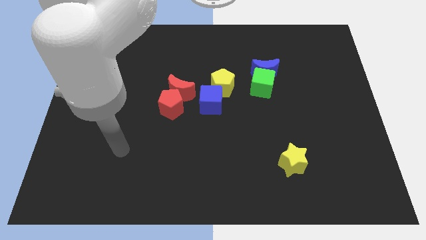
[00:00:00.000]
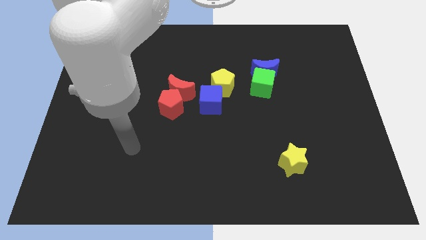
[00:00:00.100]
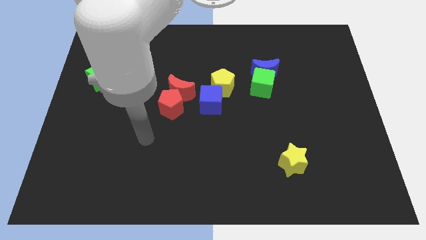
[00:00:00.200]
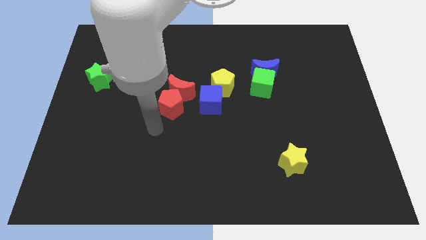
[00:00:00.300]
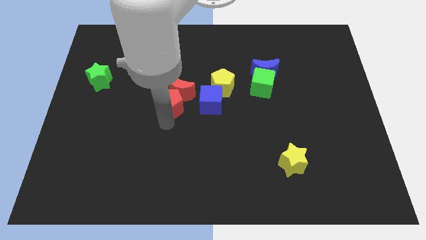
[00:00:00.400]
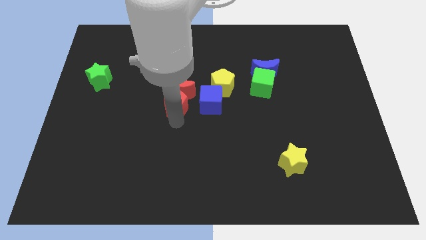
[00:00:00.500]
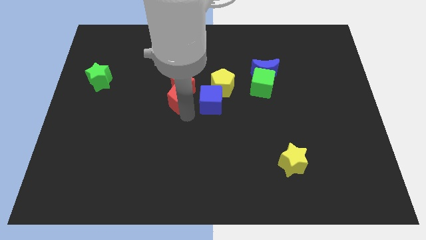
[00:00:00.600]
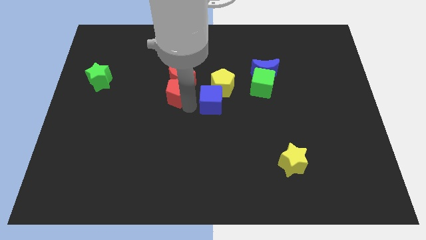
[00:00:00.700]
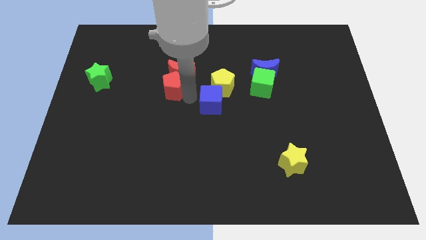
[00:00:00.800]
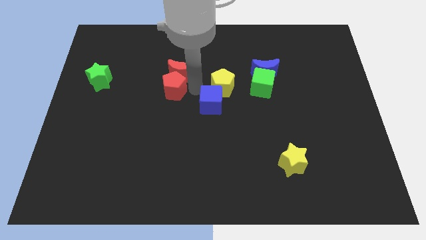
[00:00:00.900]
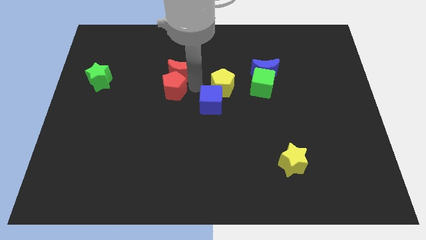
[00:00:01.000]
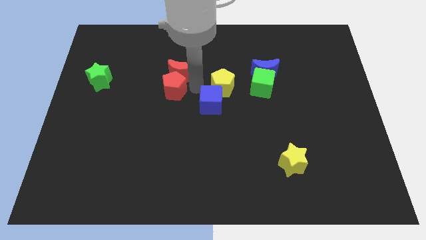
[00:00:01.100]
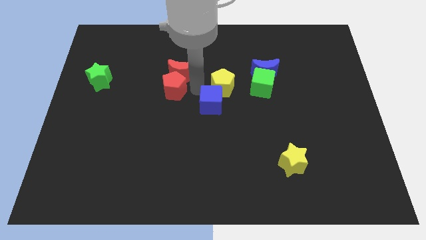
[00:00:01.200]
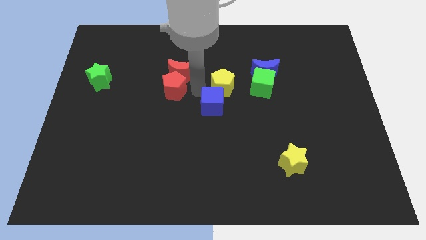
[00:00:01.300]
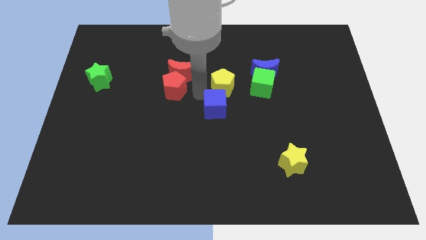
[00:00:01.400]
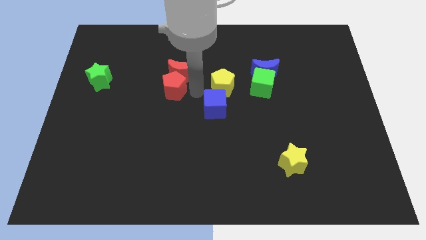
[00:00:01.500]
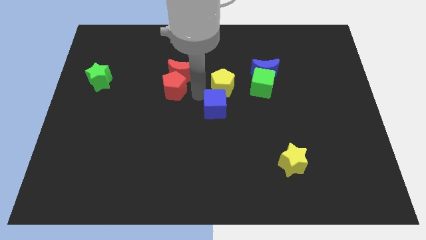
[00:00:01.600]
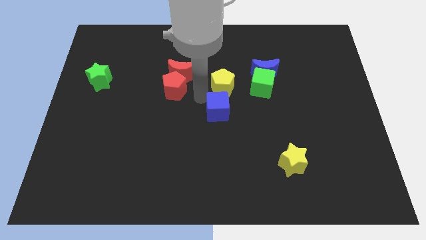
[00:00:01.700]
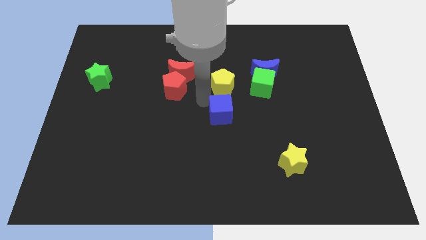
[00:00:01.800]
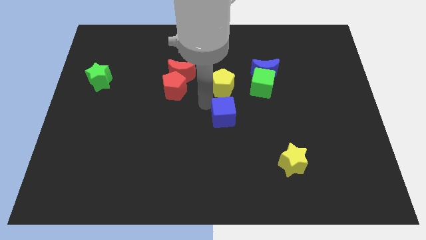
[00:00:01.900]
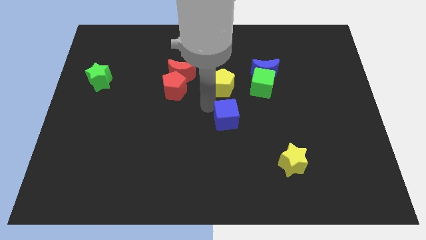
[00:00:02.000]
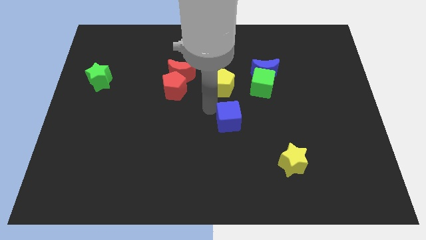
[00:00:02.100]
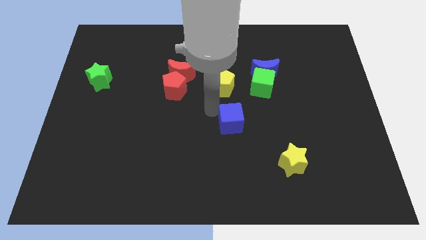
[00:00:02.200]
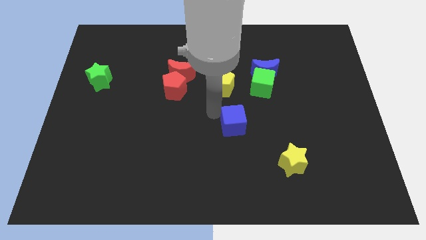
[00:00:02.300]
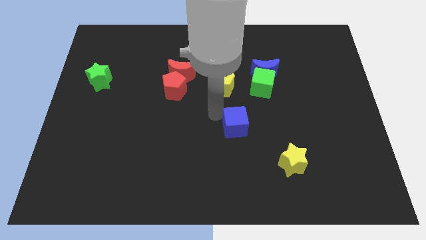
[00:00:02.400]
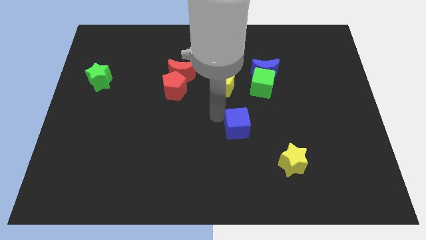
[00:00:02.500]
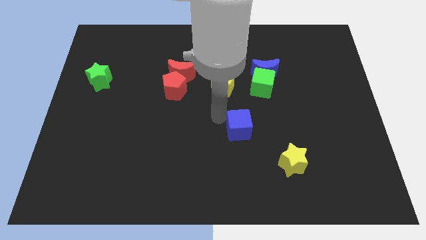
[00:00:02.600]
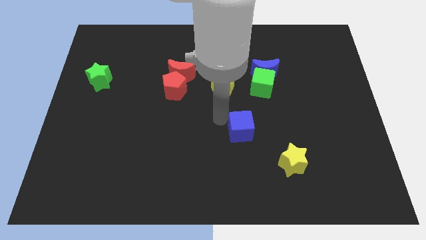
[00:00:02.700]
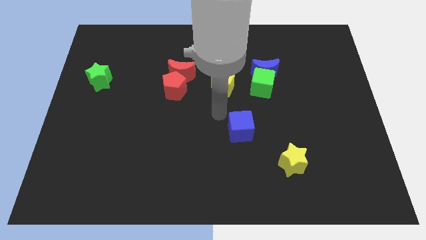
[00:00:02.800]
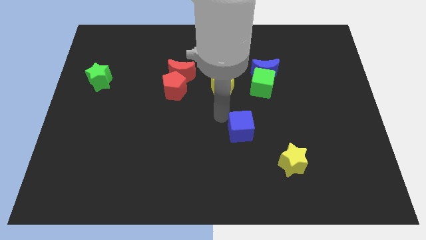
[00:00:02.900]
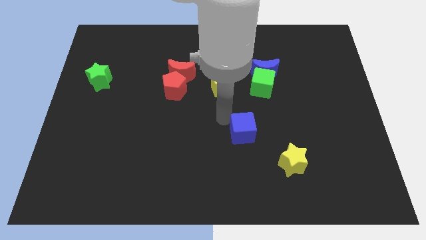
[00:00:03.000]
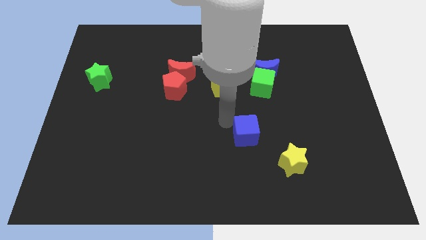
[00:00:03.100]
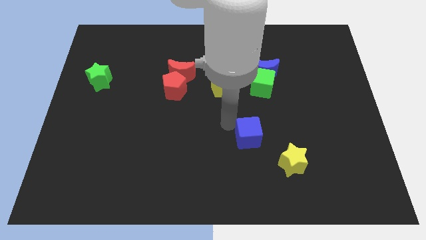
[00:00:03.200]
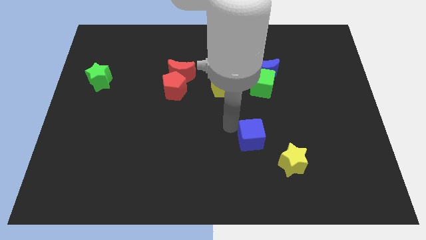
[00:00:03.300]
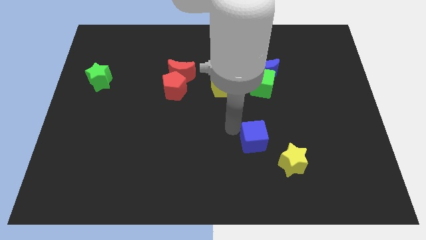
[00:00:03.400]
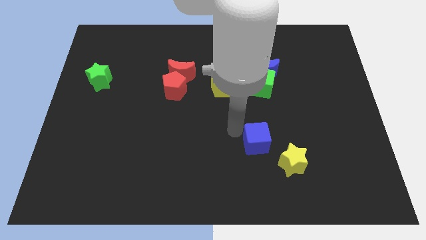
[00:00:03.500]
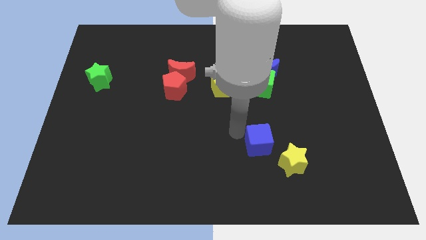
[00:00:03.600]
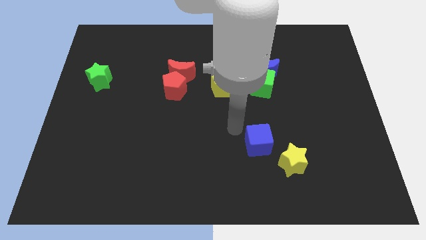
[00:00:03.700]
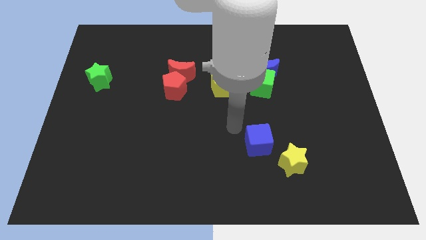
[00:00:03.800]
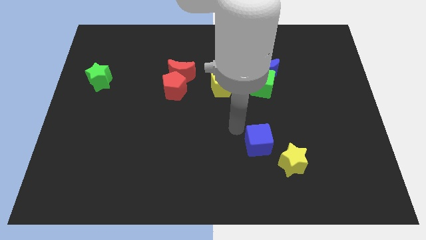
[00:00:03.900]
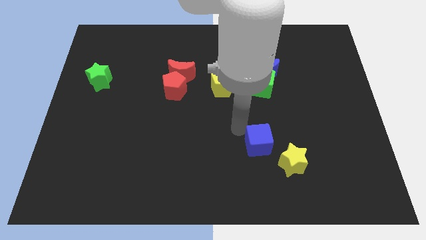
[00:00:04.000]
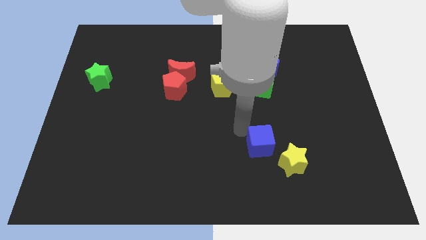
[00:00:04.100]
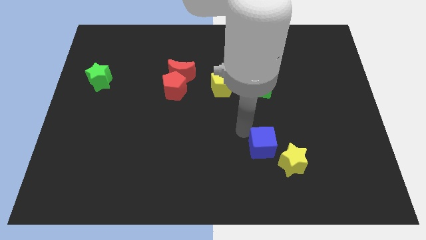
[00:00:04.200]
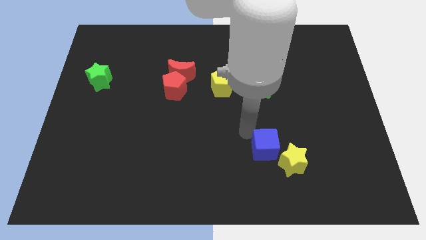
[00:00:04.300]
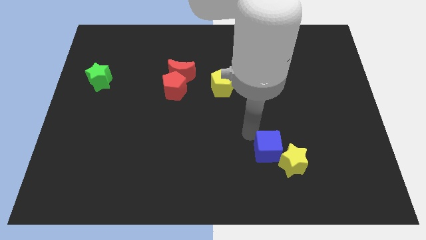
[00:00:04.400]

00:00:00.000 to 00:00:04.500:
slide the blue cube to the yellow star

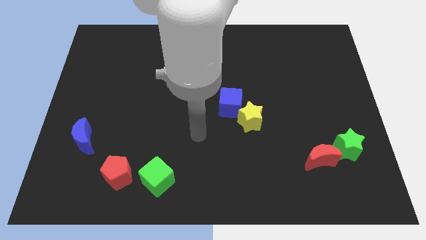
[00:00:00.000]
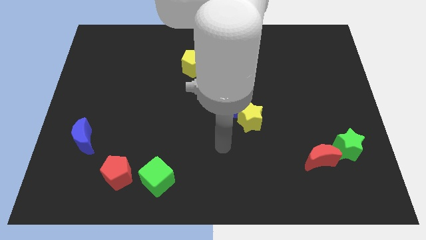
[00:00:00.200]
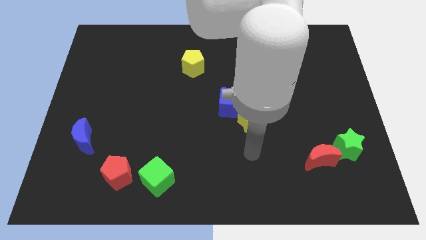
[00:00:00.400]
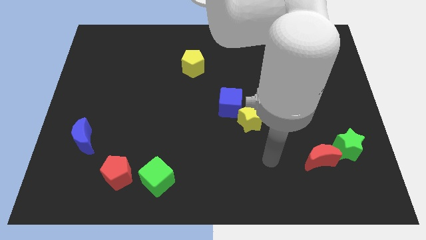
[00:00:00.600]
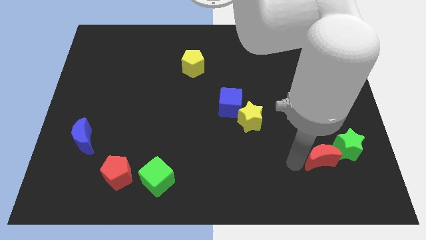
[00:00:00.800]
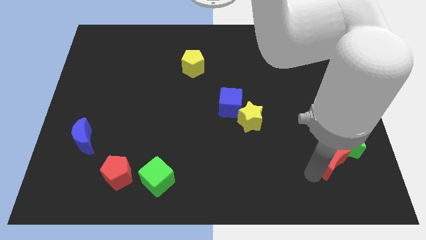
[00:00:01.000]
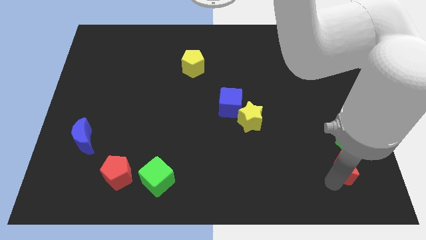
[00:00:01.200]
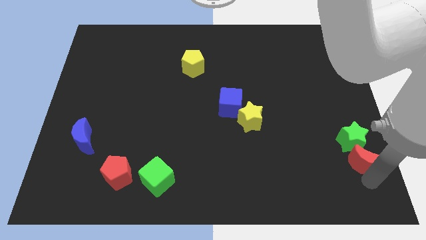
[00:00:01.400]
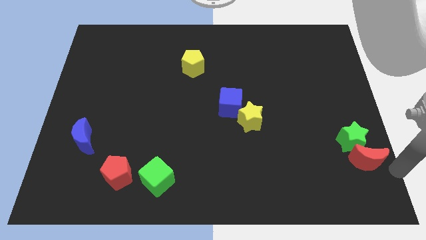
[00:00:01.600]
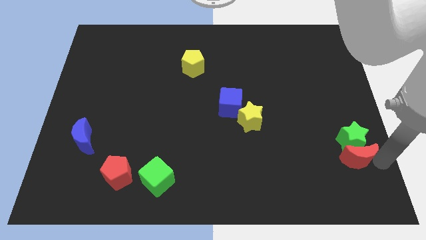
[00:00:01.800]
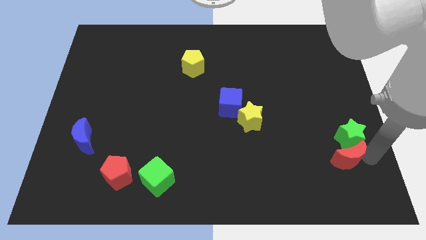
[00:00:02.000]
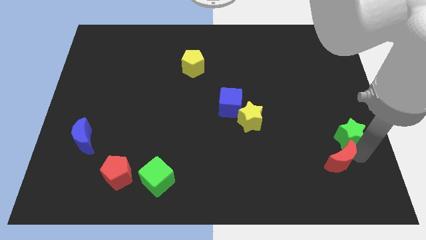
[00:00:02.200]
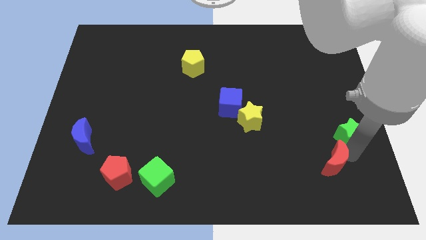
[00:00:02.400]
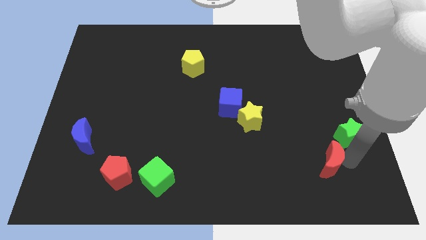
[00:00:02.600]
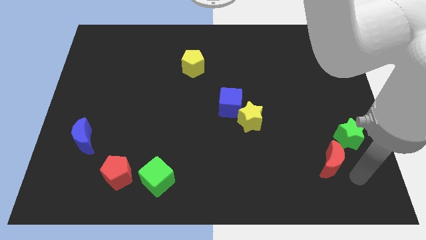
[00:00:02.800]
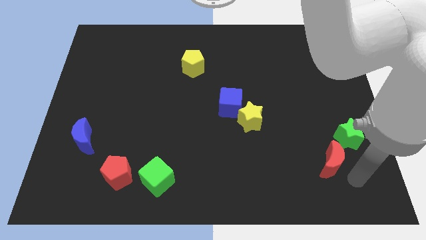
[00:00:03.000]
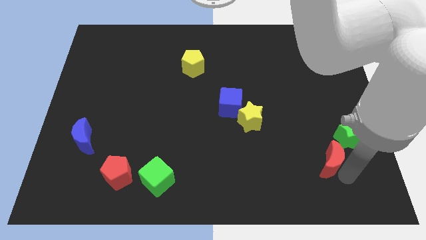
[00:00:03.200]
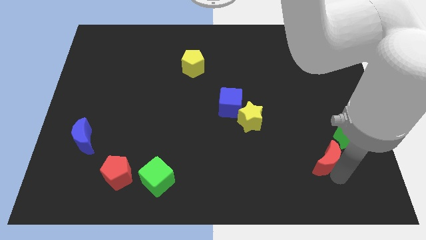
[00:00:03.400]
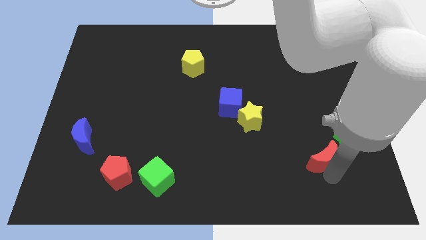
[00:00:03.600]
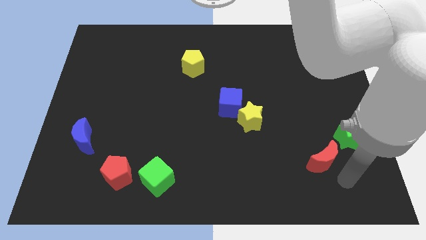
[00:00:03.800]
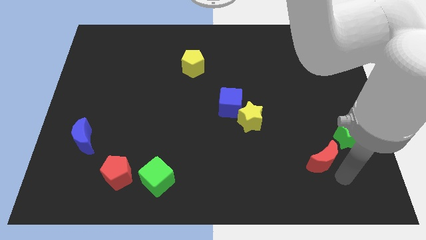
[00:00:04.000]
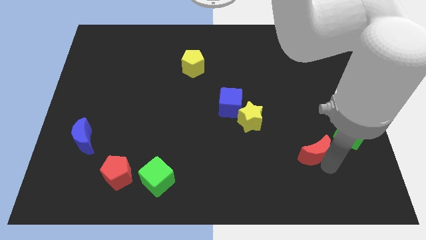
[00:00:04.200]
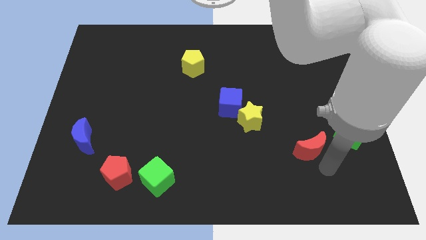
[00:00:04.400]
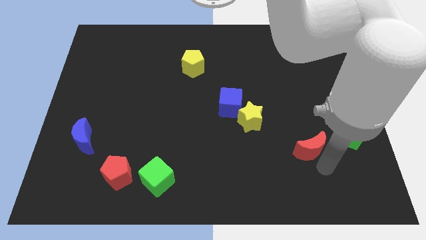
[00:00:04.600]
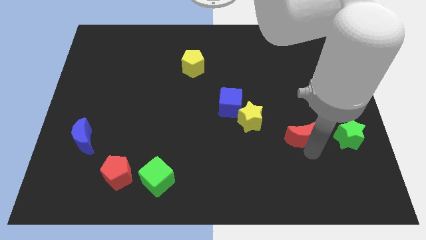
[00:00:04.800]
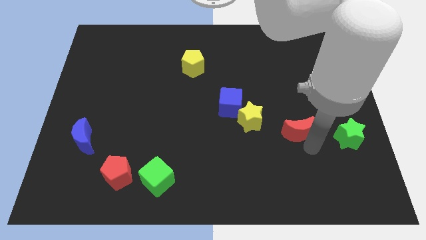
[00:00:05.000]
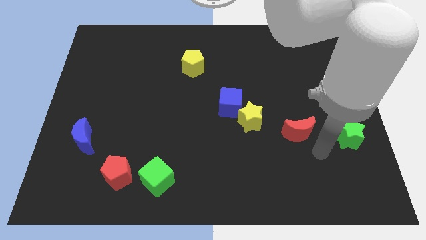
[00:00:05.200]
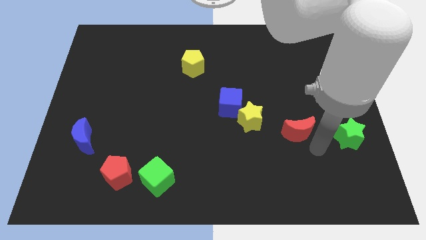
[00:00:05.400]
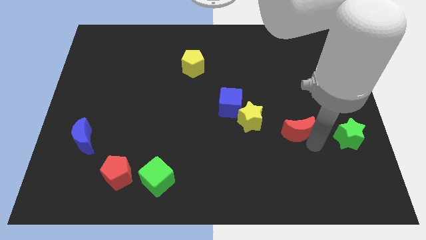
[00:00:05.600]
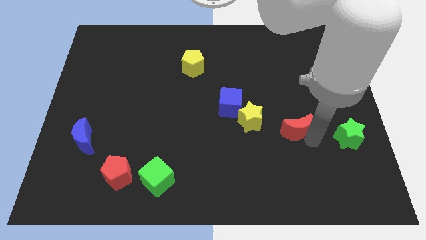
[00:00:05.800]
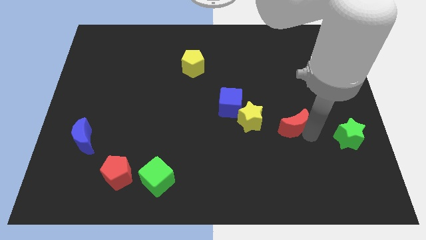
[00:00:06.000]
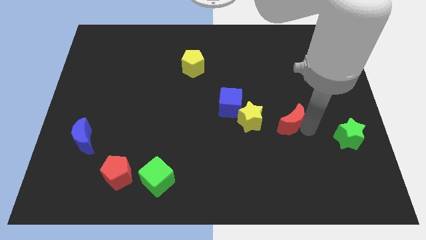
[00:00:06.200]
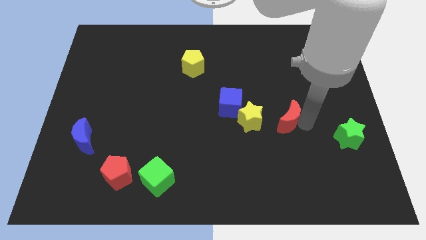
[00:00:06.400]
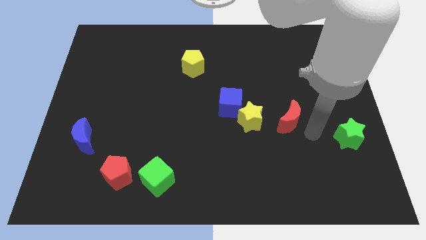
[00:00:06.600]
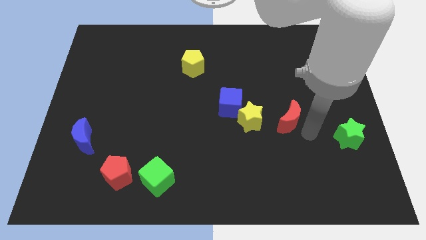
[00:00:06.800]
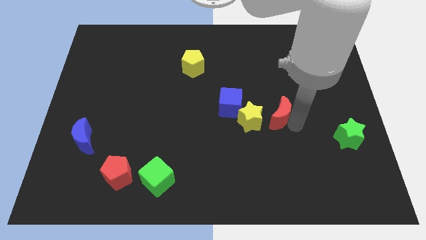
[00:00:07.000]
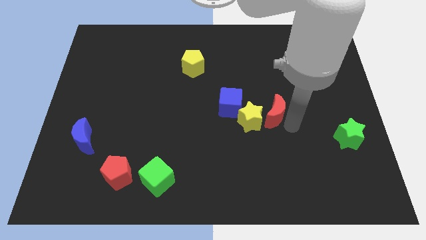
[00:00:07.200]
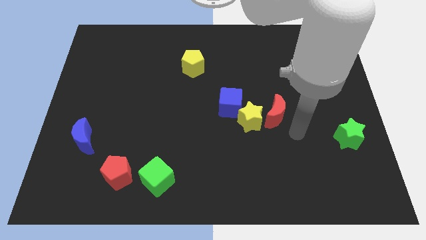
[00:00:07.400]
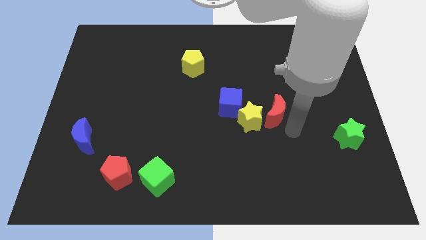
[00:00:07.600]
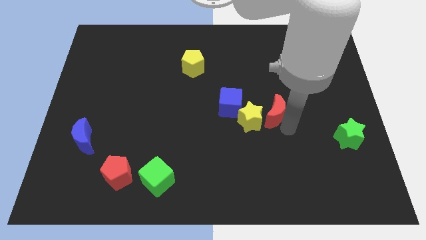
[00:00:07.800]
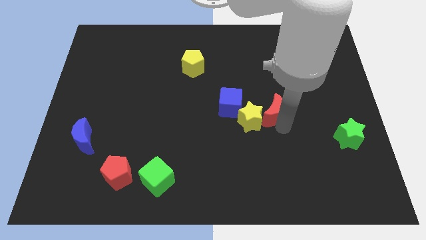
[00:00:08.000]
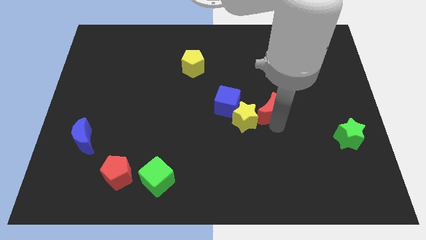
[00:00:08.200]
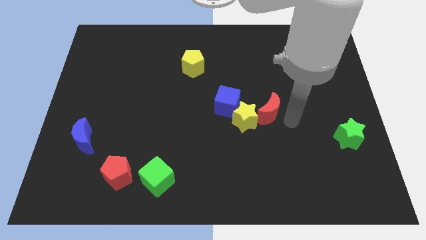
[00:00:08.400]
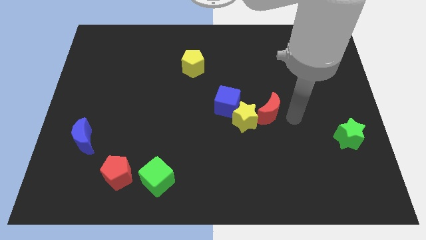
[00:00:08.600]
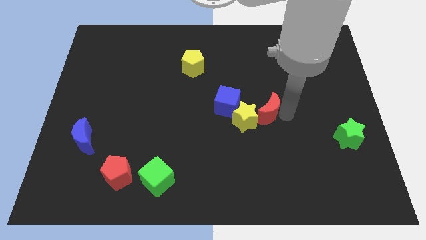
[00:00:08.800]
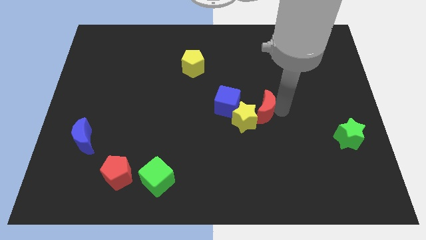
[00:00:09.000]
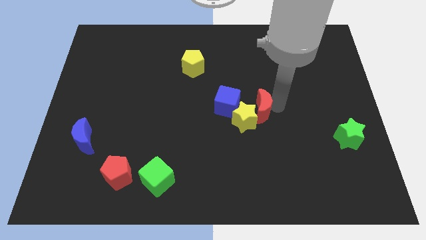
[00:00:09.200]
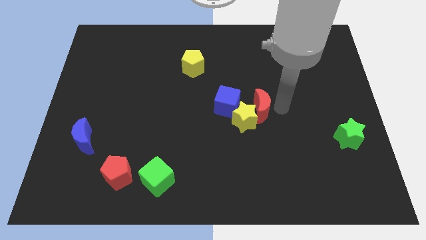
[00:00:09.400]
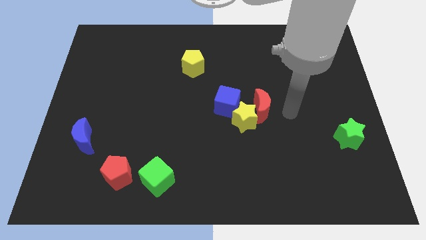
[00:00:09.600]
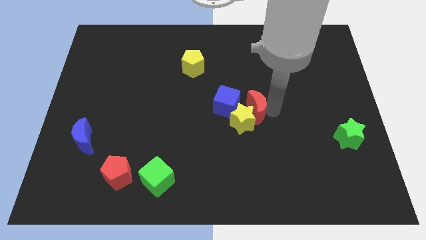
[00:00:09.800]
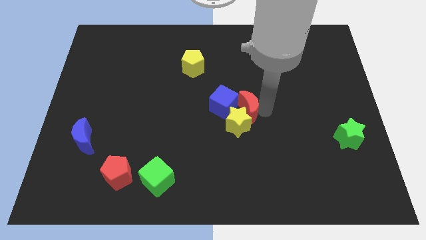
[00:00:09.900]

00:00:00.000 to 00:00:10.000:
push the red moon towards the blue cube
